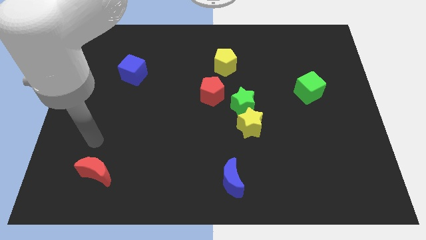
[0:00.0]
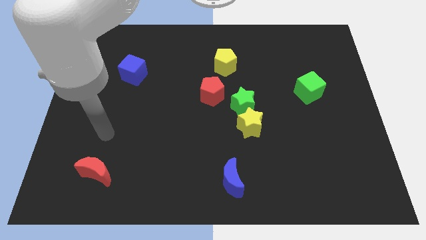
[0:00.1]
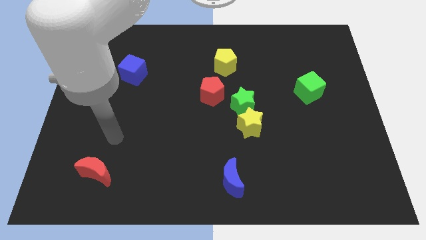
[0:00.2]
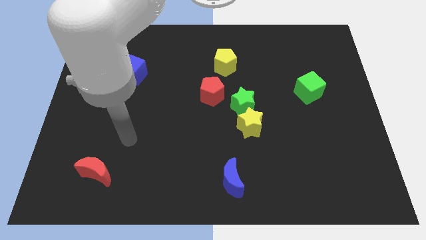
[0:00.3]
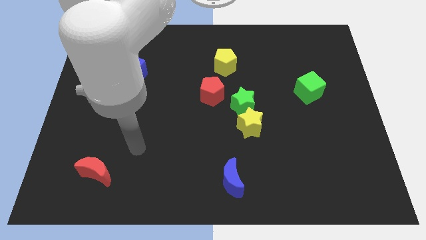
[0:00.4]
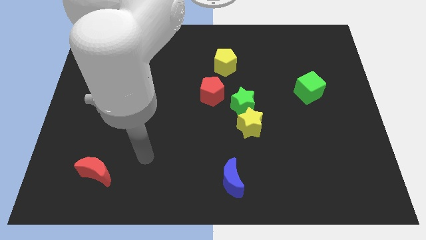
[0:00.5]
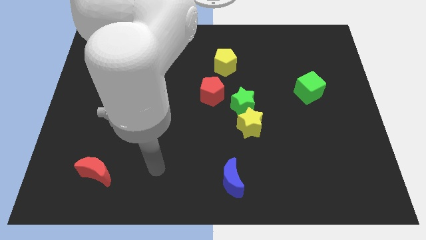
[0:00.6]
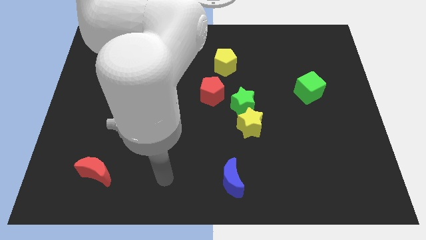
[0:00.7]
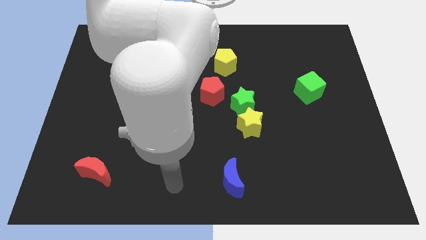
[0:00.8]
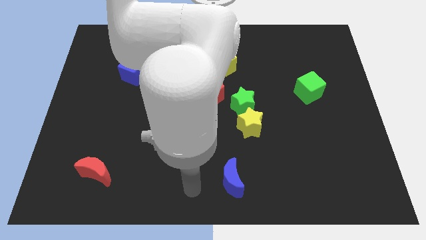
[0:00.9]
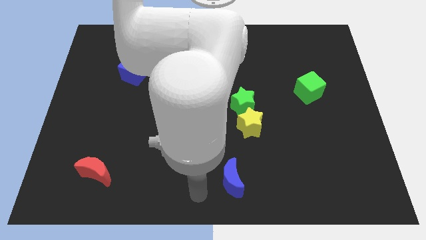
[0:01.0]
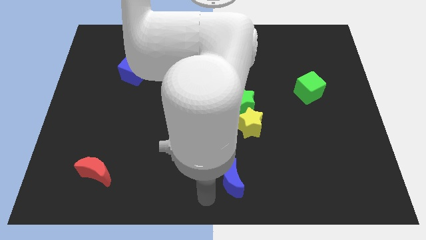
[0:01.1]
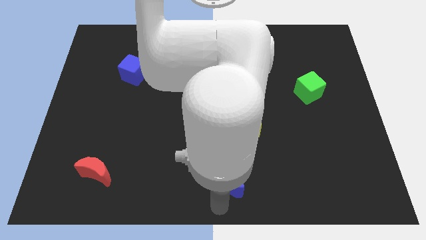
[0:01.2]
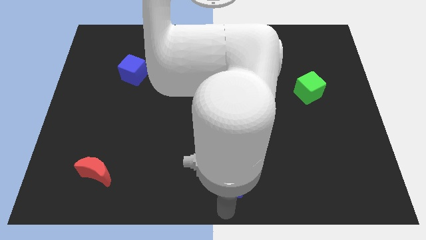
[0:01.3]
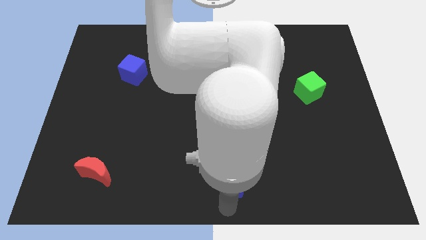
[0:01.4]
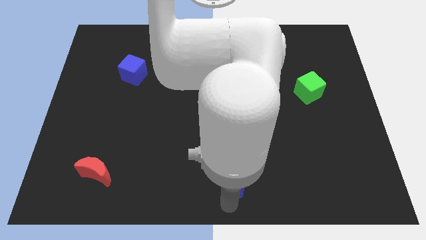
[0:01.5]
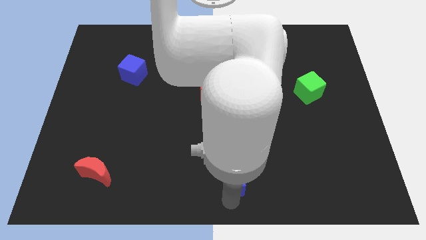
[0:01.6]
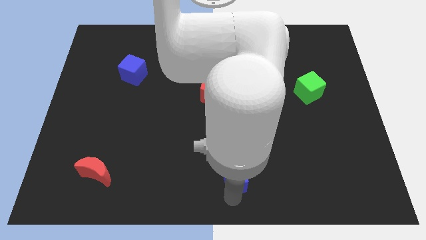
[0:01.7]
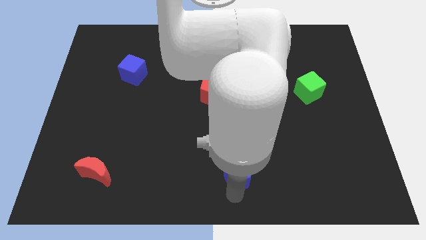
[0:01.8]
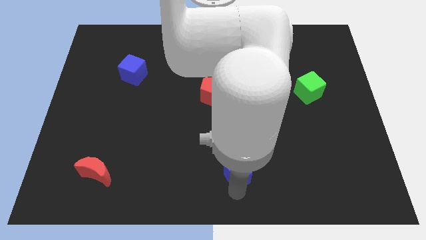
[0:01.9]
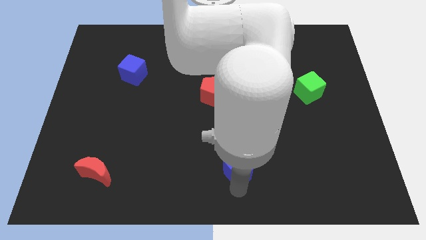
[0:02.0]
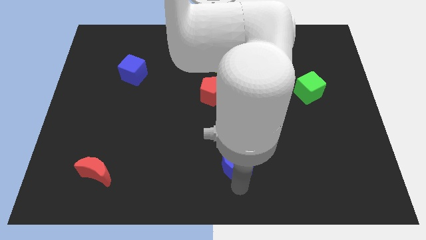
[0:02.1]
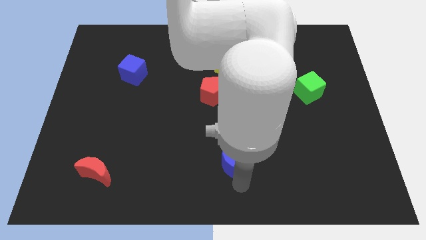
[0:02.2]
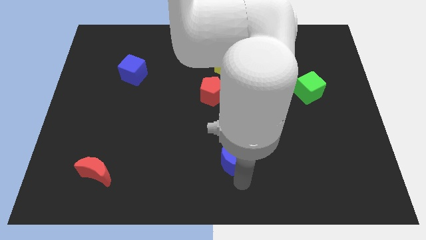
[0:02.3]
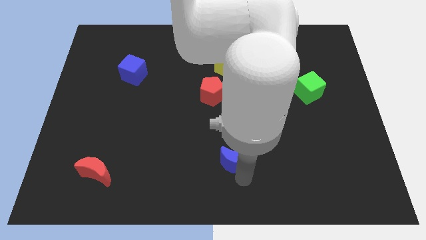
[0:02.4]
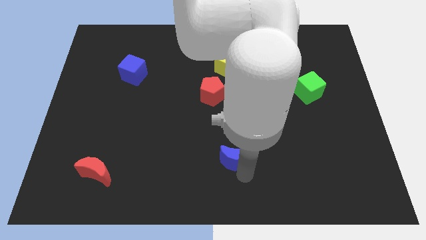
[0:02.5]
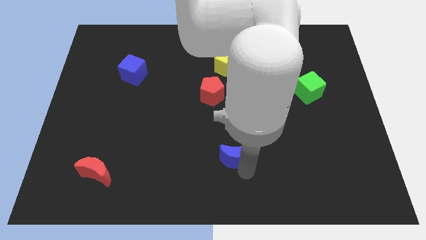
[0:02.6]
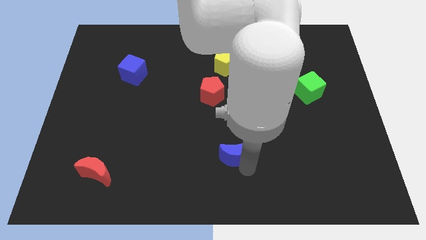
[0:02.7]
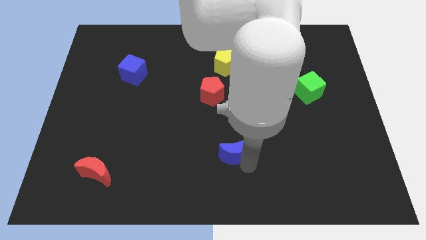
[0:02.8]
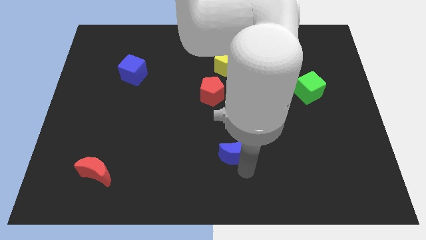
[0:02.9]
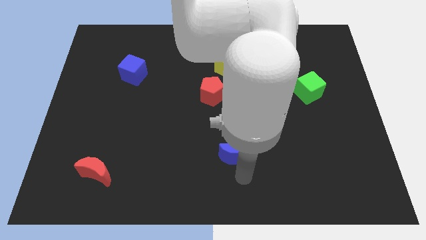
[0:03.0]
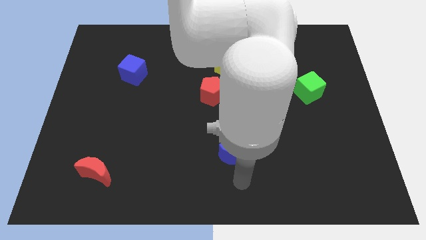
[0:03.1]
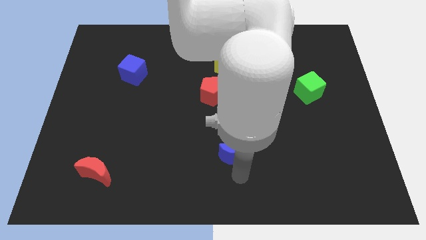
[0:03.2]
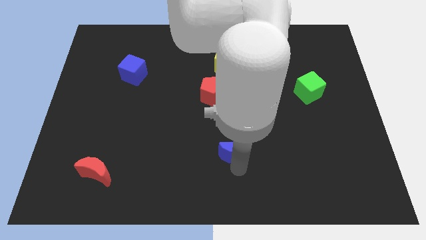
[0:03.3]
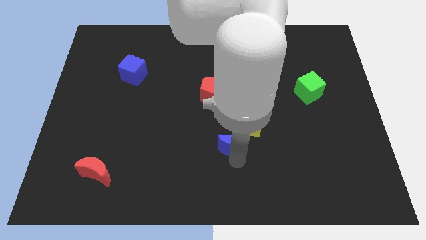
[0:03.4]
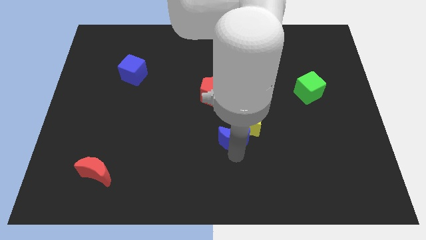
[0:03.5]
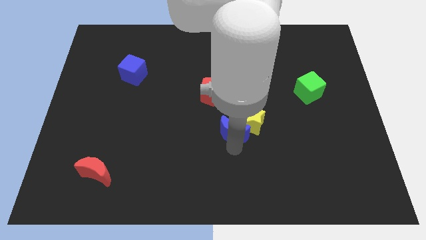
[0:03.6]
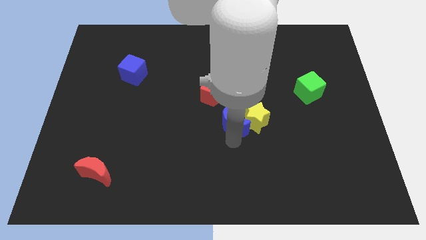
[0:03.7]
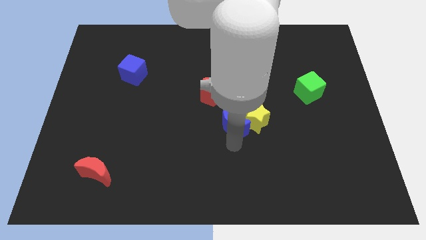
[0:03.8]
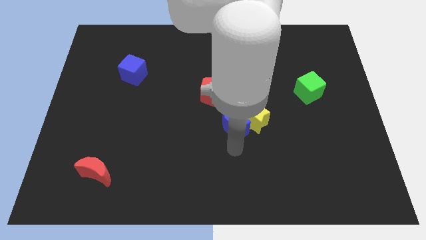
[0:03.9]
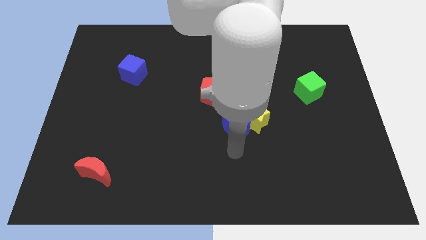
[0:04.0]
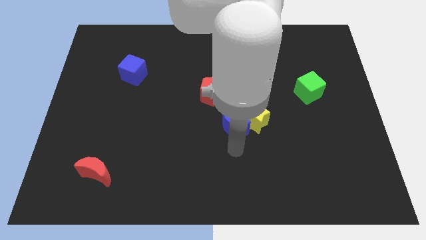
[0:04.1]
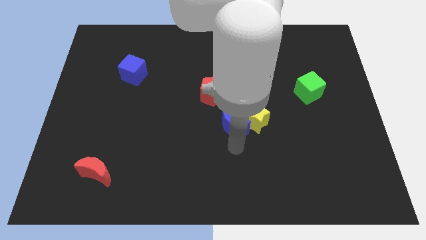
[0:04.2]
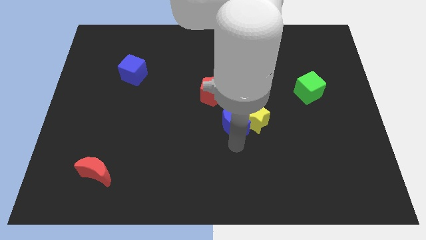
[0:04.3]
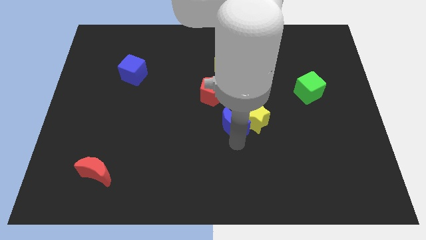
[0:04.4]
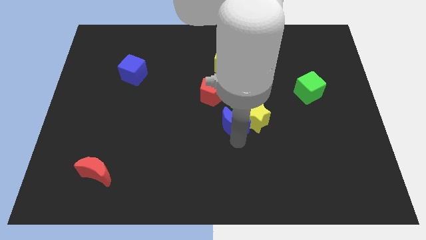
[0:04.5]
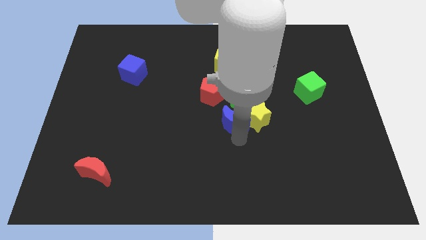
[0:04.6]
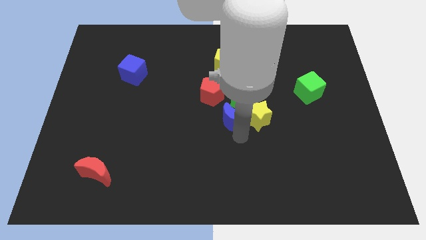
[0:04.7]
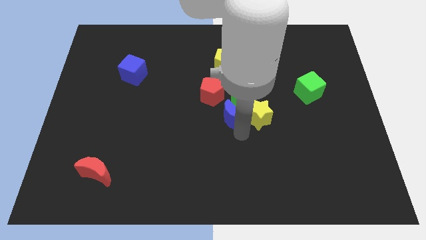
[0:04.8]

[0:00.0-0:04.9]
move the blue moon towards the green star

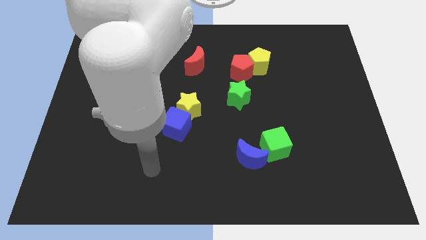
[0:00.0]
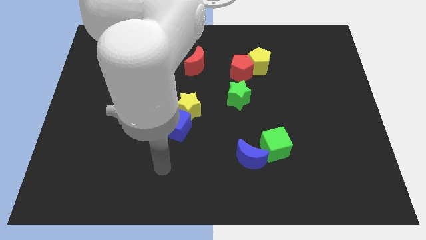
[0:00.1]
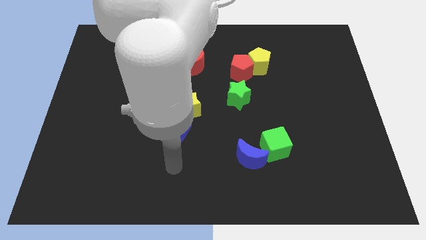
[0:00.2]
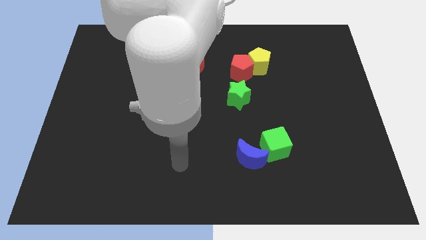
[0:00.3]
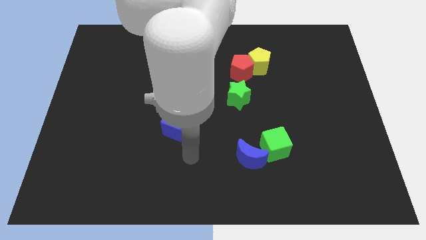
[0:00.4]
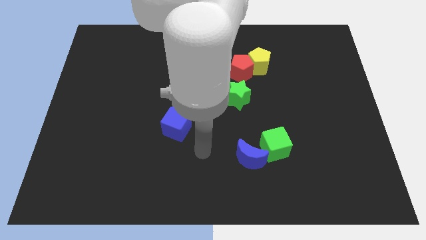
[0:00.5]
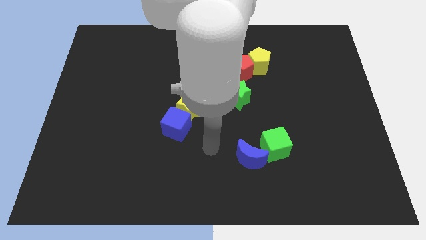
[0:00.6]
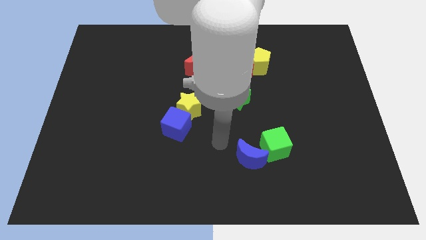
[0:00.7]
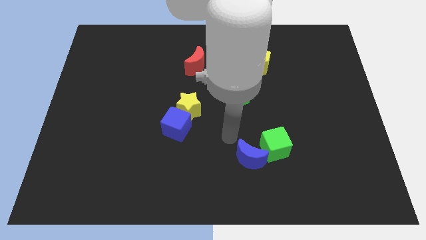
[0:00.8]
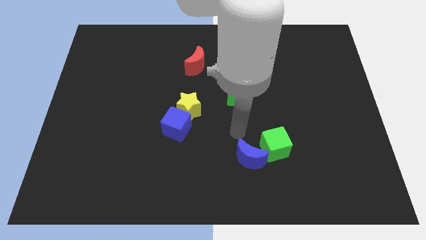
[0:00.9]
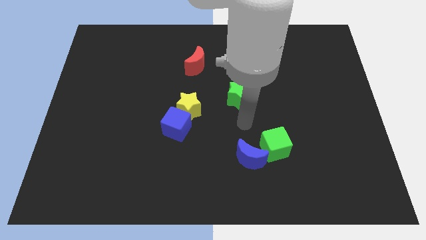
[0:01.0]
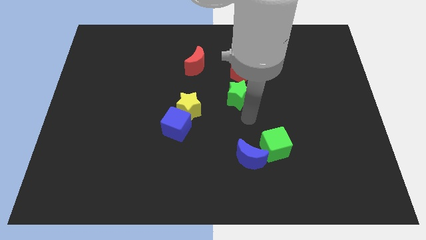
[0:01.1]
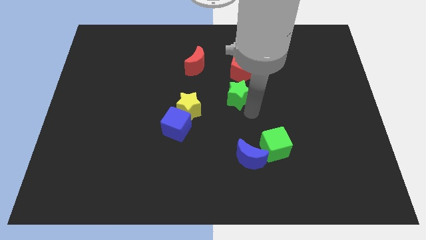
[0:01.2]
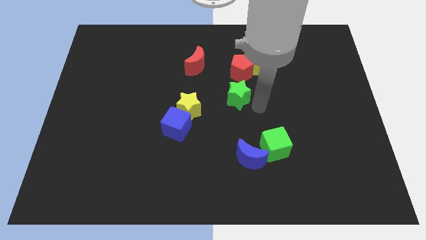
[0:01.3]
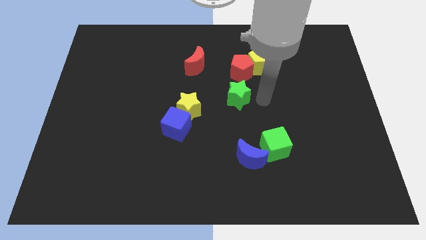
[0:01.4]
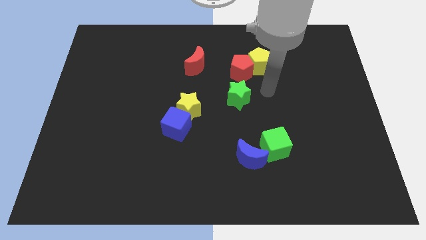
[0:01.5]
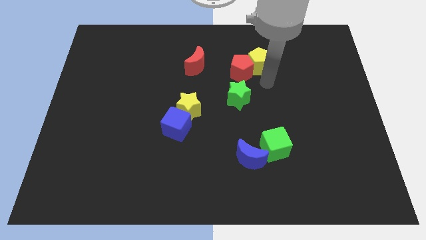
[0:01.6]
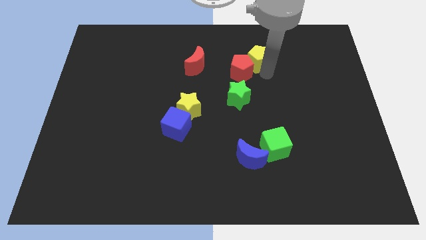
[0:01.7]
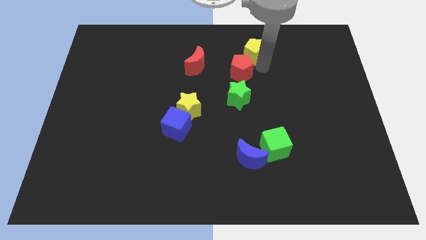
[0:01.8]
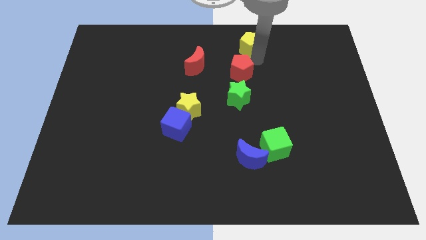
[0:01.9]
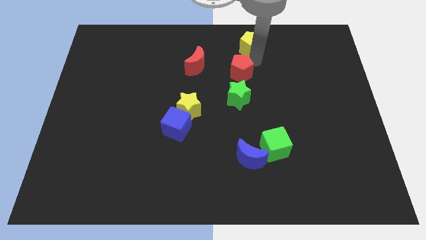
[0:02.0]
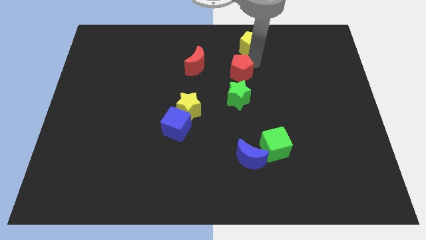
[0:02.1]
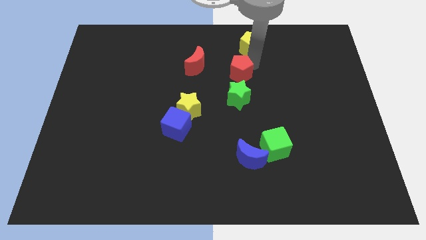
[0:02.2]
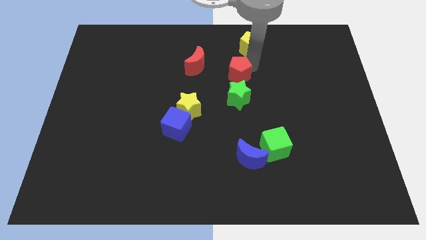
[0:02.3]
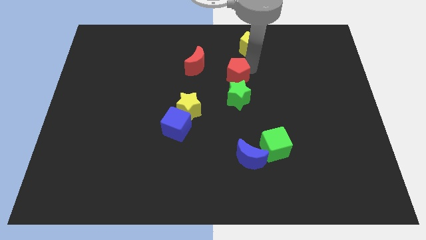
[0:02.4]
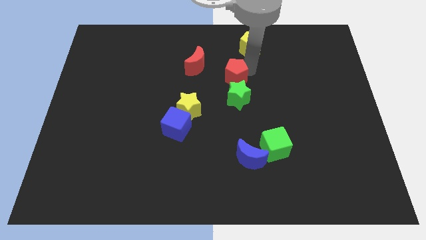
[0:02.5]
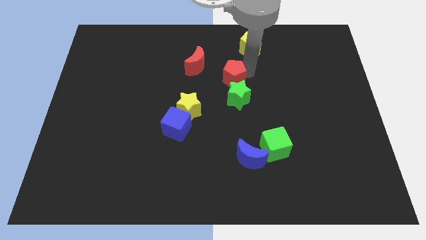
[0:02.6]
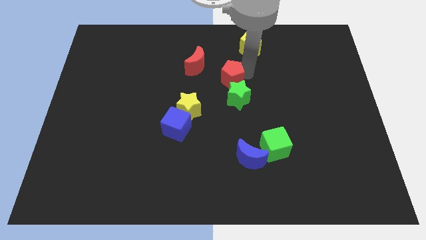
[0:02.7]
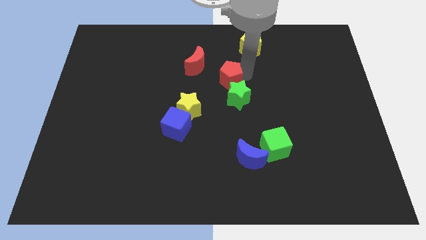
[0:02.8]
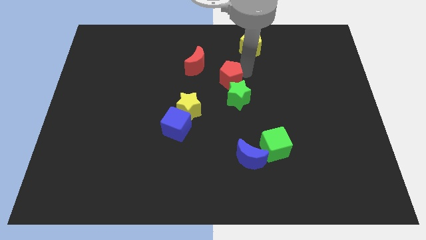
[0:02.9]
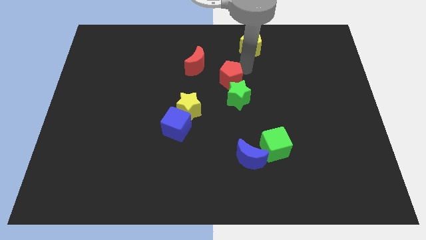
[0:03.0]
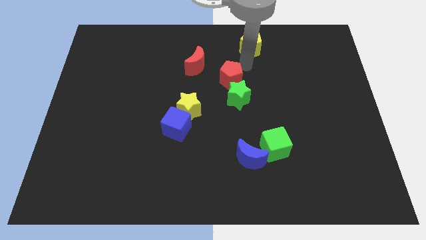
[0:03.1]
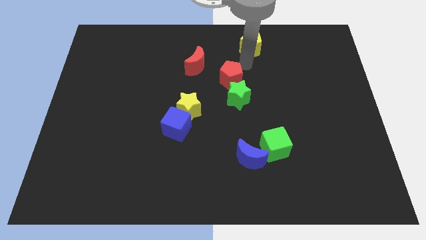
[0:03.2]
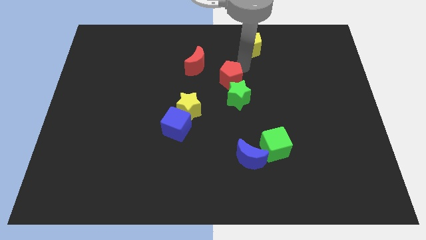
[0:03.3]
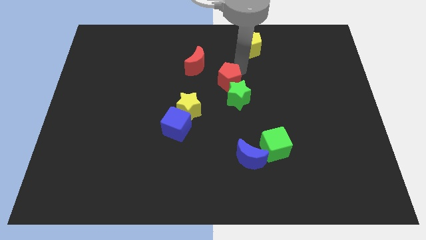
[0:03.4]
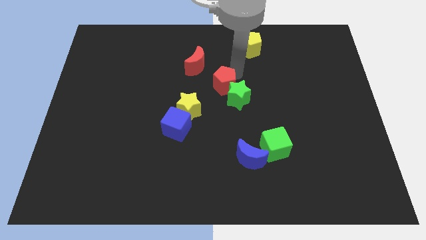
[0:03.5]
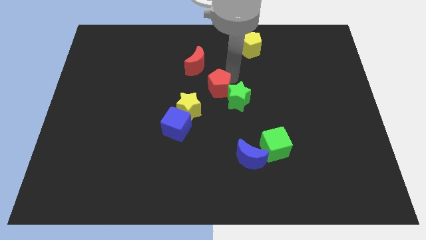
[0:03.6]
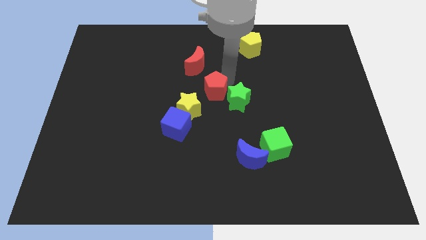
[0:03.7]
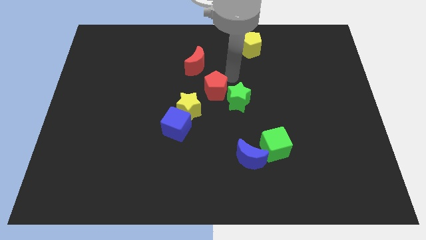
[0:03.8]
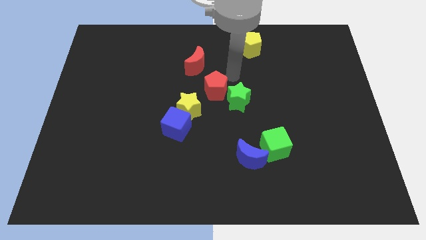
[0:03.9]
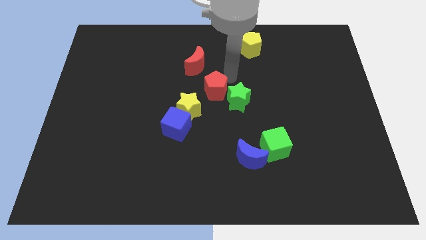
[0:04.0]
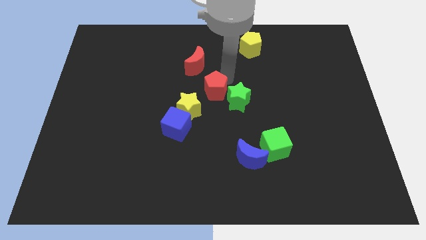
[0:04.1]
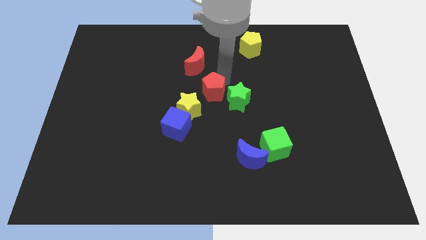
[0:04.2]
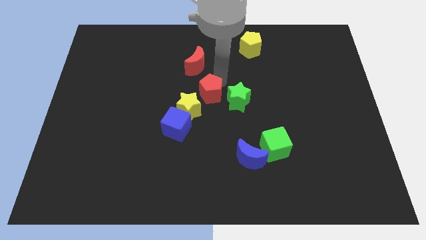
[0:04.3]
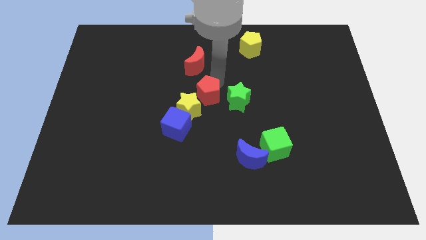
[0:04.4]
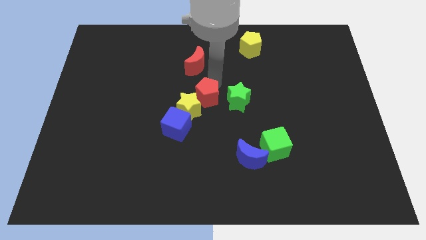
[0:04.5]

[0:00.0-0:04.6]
slide the red pentagon to the yellow star
